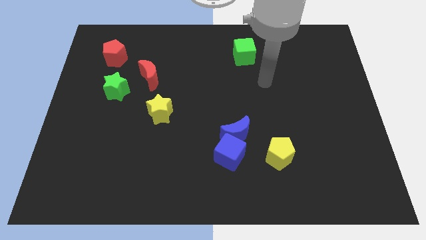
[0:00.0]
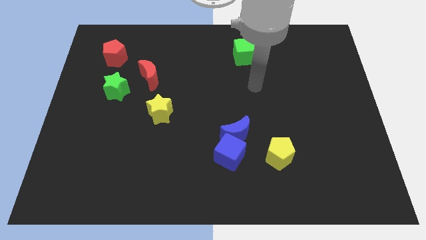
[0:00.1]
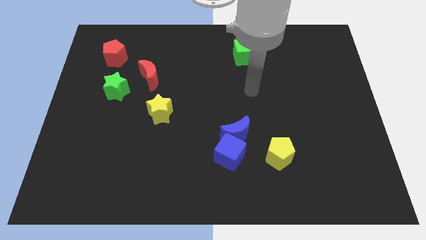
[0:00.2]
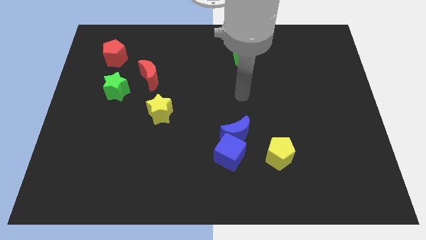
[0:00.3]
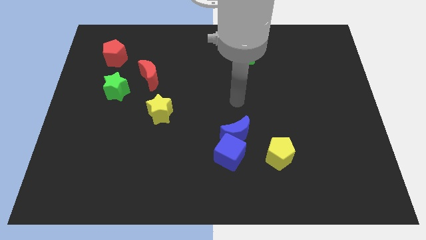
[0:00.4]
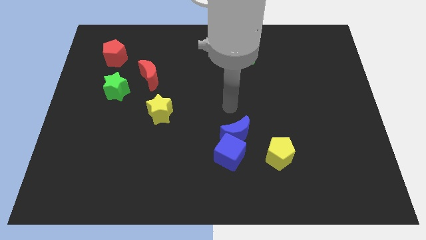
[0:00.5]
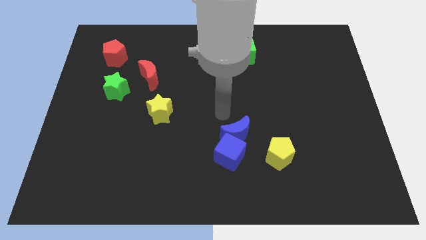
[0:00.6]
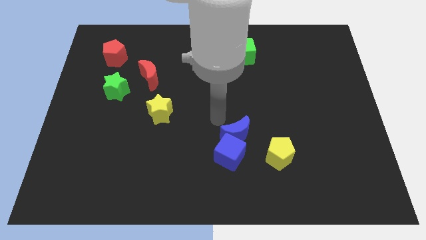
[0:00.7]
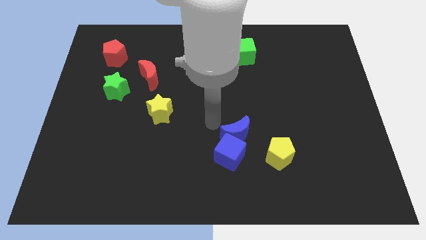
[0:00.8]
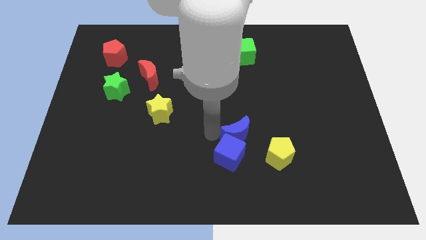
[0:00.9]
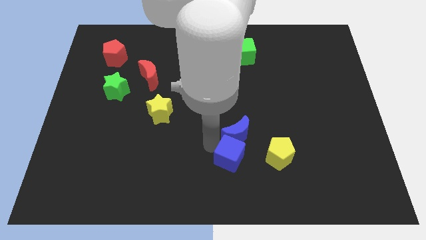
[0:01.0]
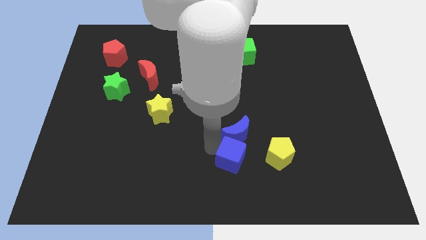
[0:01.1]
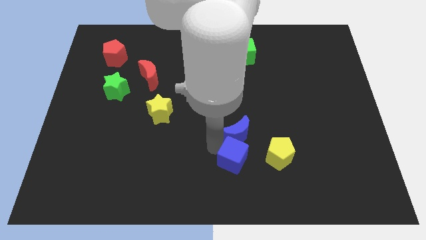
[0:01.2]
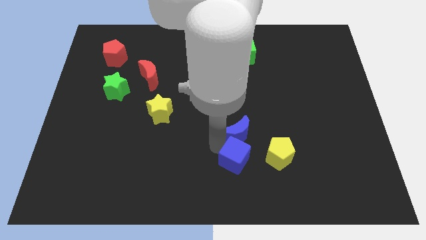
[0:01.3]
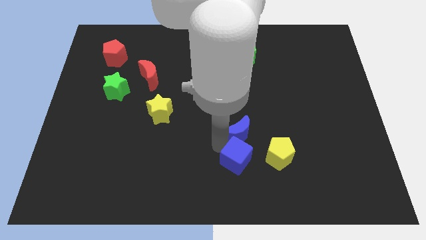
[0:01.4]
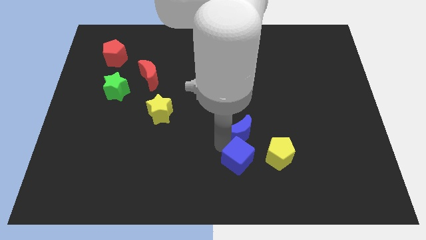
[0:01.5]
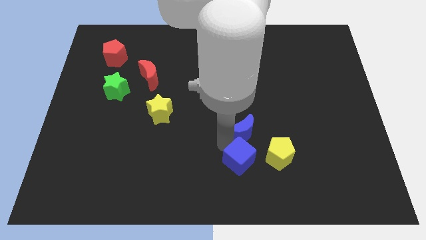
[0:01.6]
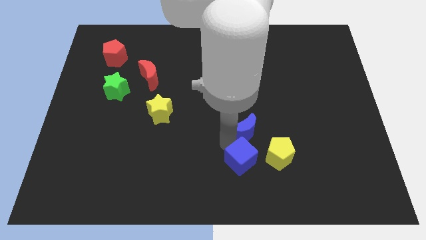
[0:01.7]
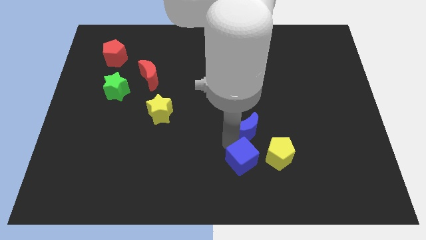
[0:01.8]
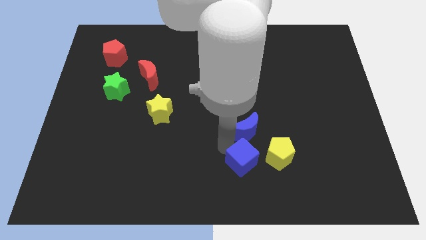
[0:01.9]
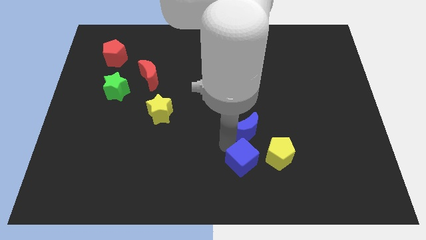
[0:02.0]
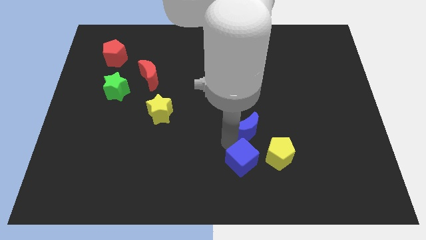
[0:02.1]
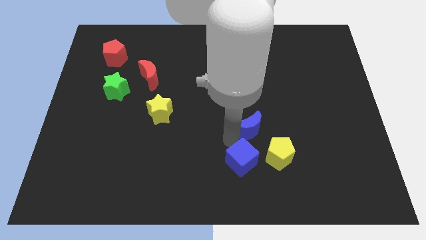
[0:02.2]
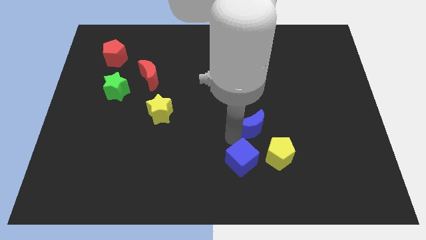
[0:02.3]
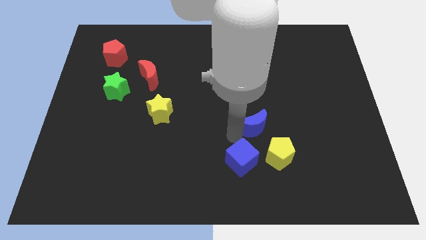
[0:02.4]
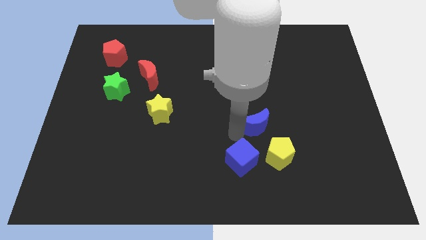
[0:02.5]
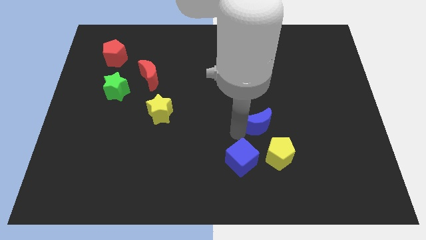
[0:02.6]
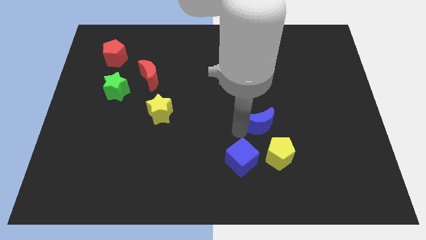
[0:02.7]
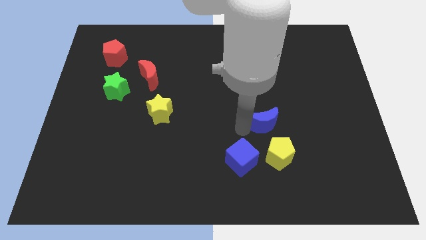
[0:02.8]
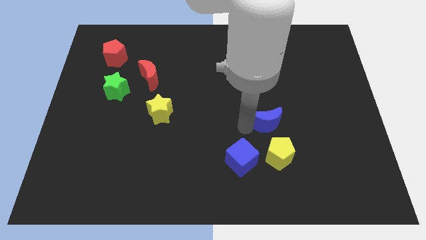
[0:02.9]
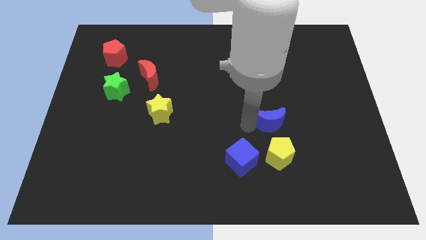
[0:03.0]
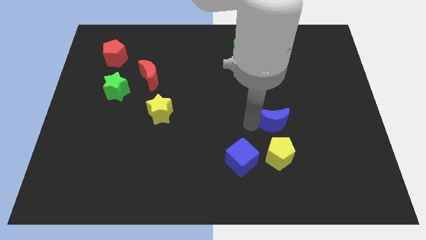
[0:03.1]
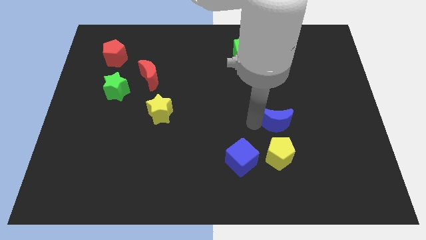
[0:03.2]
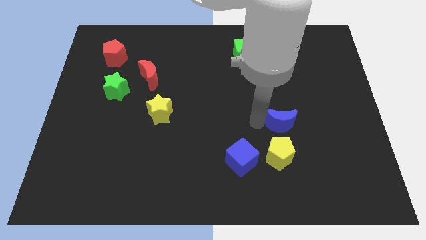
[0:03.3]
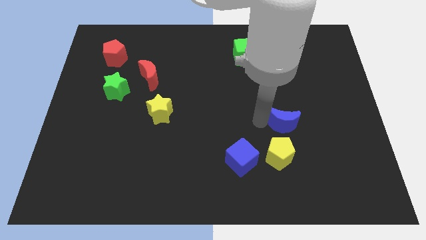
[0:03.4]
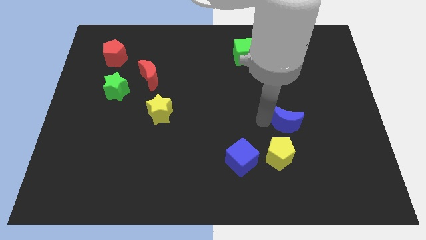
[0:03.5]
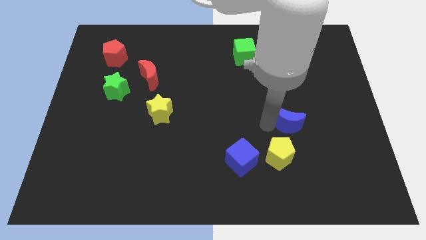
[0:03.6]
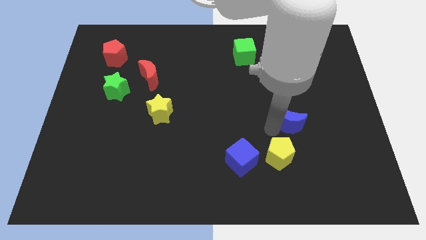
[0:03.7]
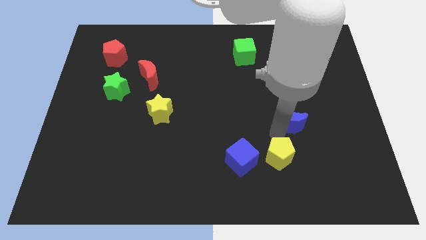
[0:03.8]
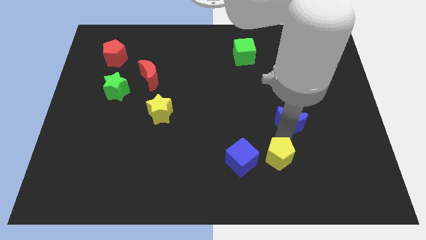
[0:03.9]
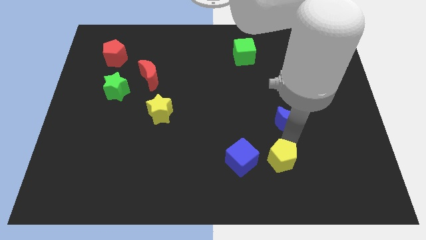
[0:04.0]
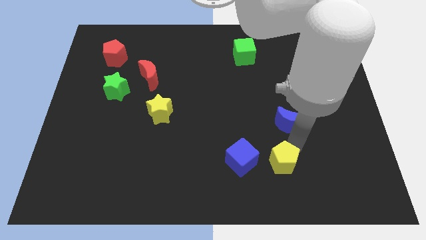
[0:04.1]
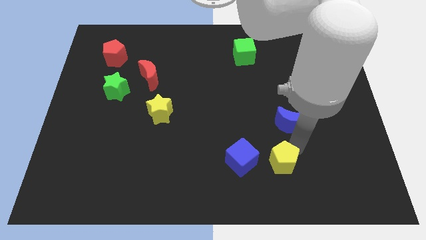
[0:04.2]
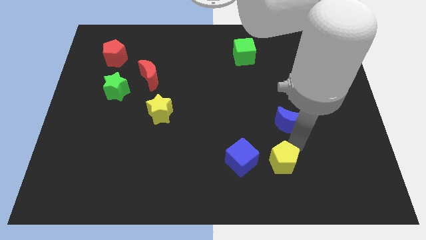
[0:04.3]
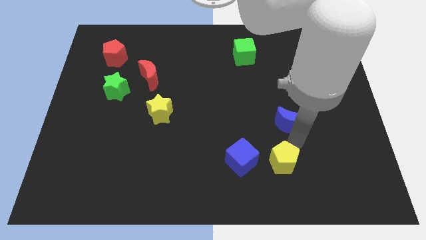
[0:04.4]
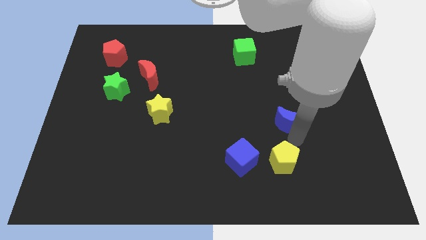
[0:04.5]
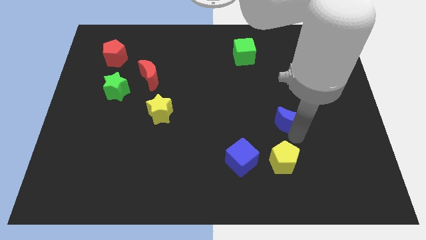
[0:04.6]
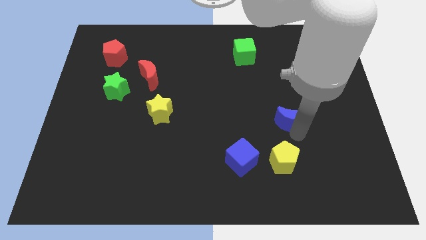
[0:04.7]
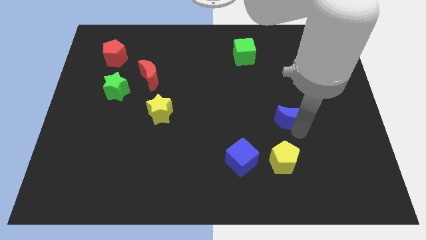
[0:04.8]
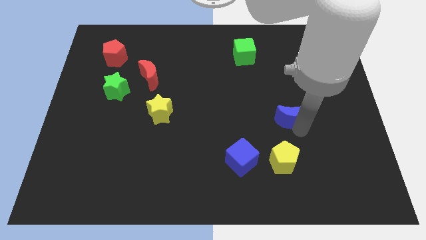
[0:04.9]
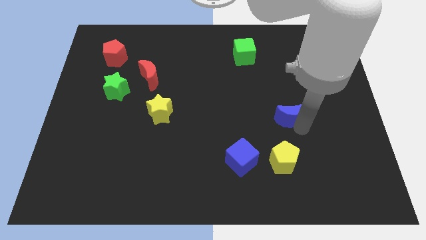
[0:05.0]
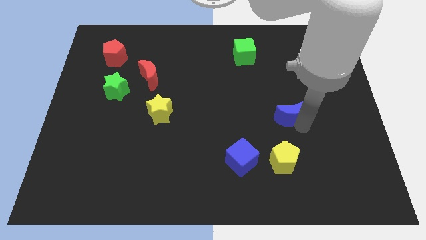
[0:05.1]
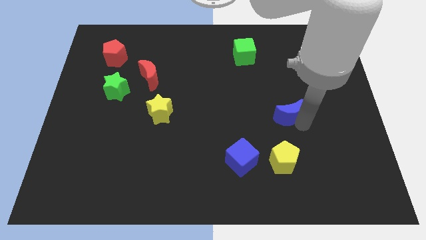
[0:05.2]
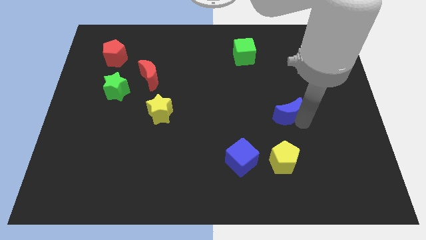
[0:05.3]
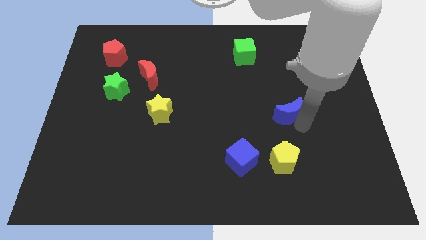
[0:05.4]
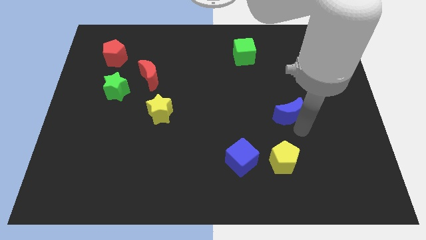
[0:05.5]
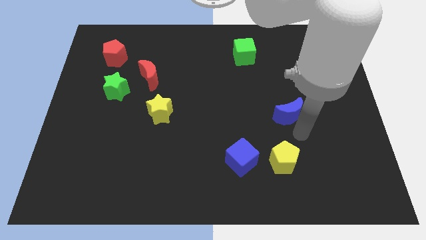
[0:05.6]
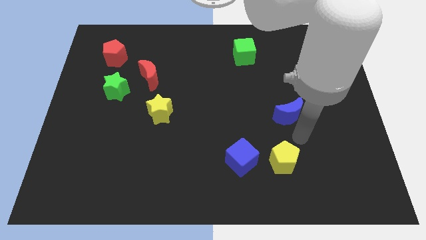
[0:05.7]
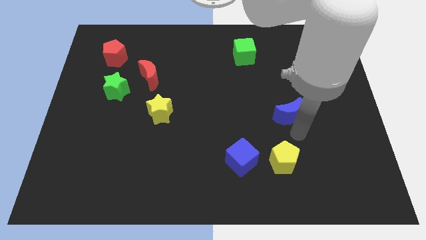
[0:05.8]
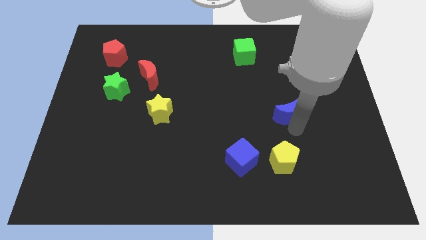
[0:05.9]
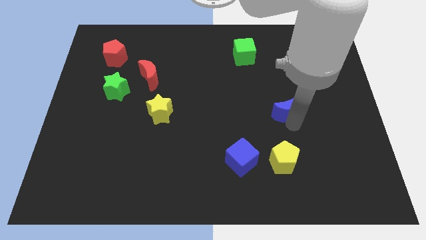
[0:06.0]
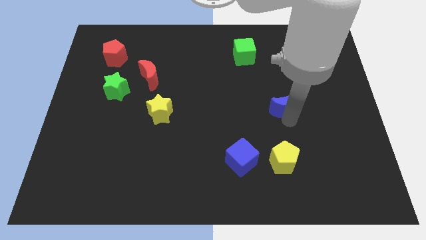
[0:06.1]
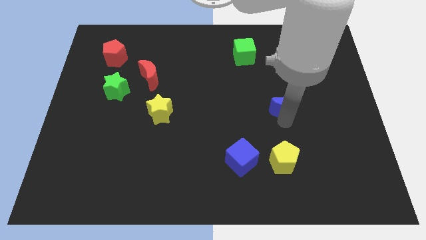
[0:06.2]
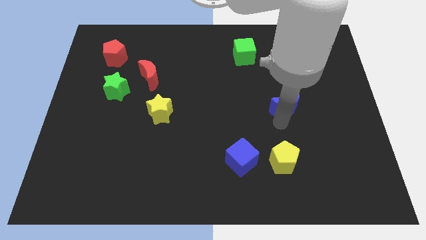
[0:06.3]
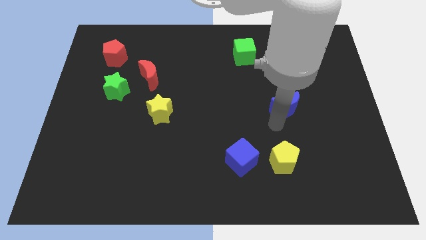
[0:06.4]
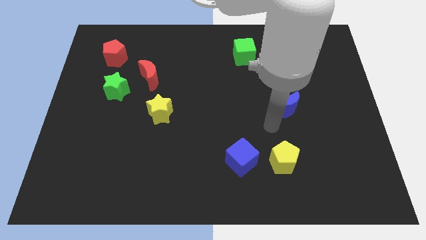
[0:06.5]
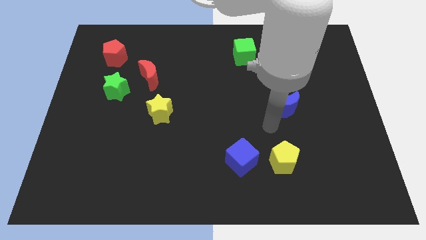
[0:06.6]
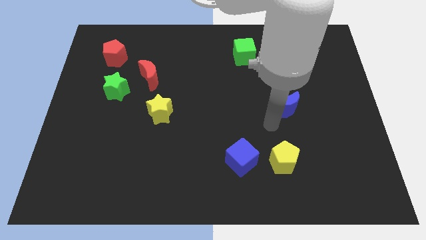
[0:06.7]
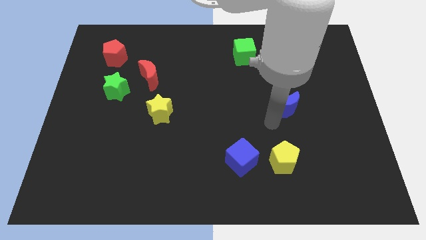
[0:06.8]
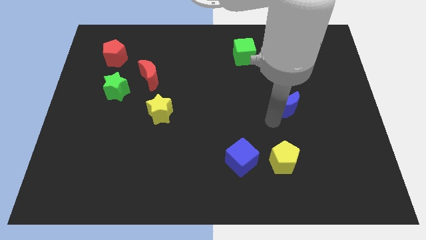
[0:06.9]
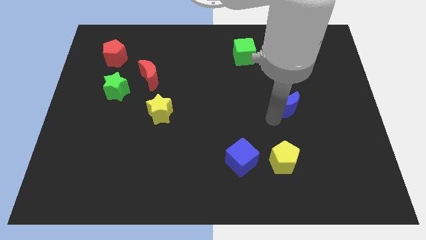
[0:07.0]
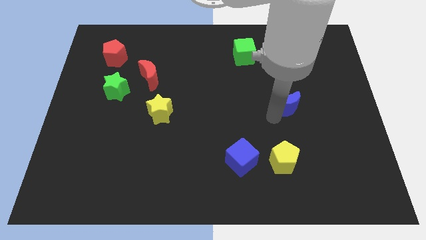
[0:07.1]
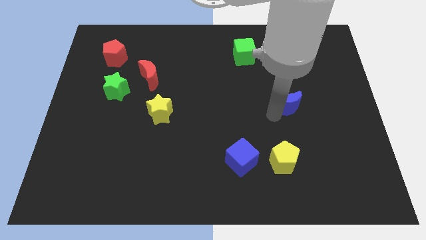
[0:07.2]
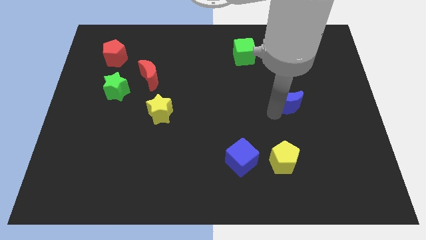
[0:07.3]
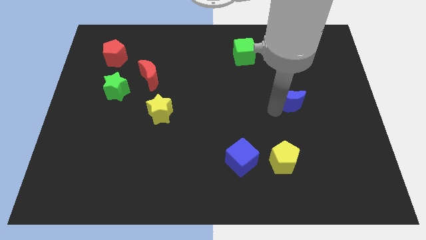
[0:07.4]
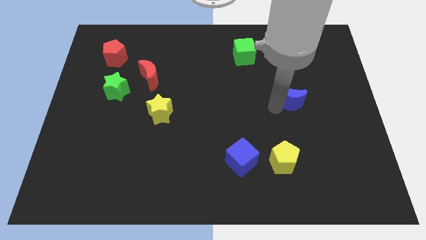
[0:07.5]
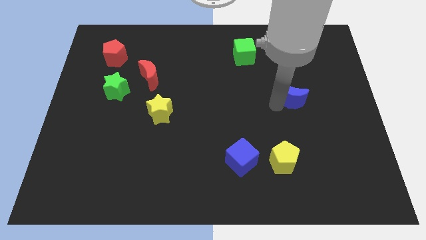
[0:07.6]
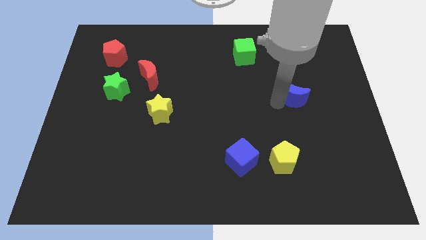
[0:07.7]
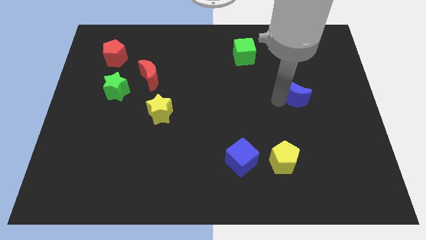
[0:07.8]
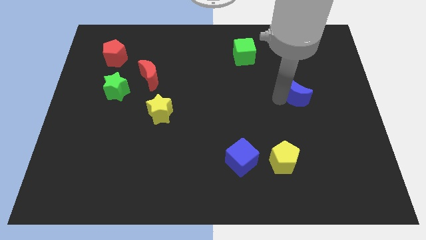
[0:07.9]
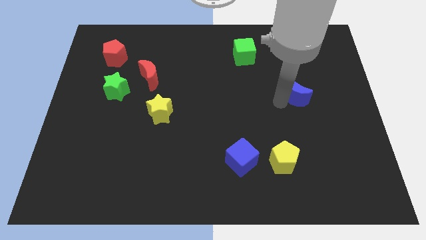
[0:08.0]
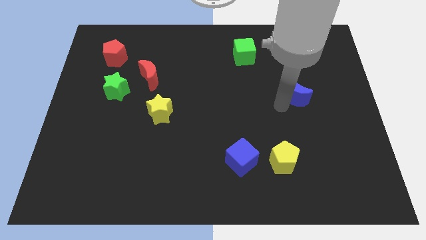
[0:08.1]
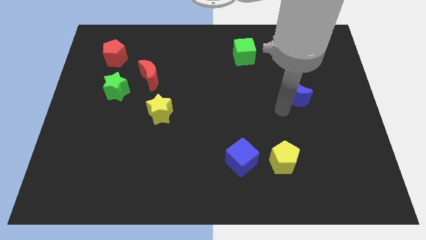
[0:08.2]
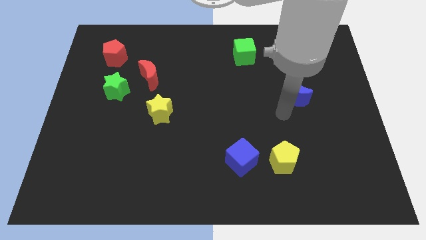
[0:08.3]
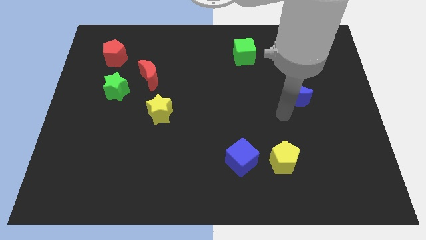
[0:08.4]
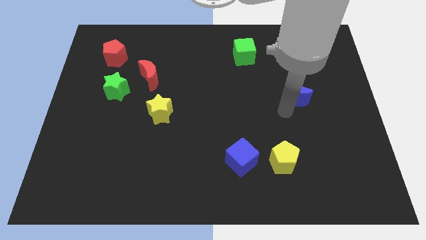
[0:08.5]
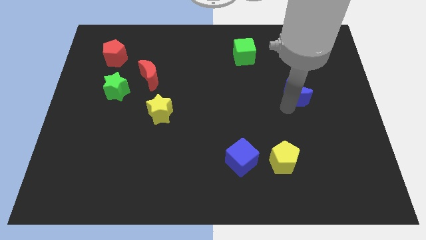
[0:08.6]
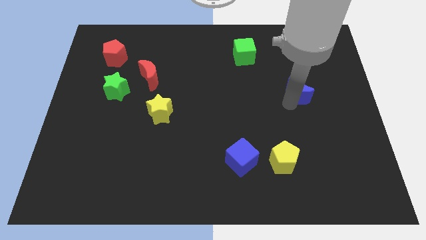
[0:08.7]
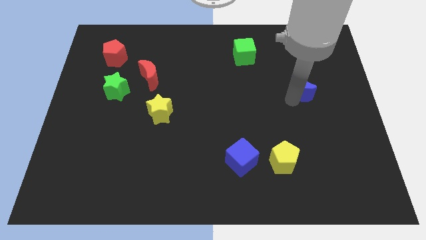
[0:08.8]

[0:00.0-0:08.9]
push the blue moon upwards and right
